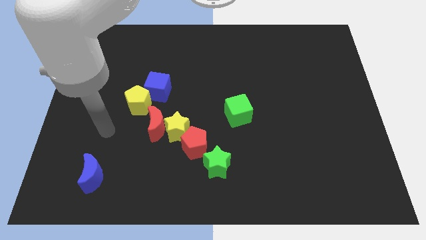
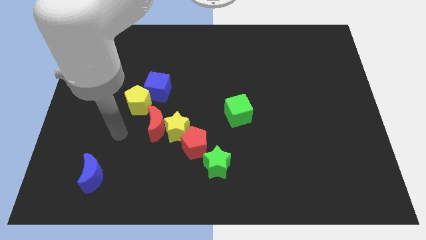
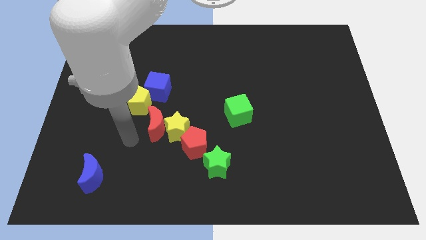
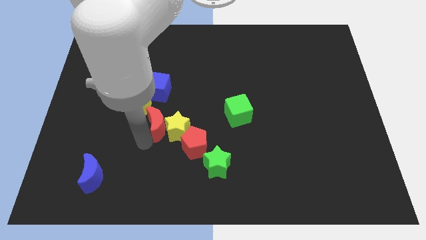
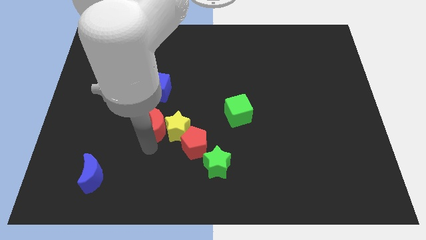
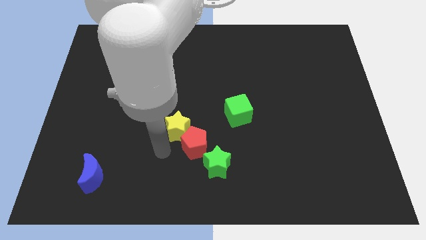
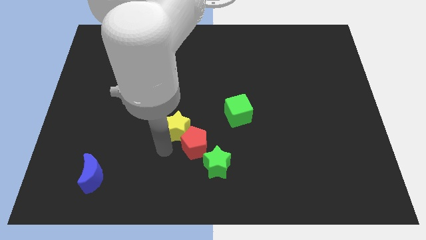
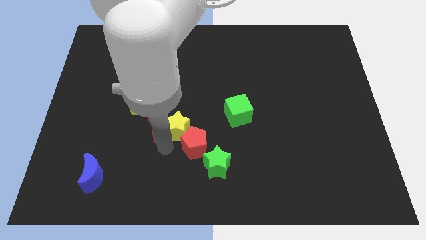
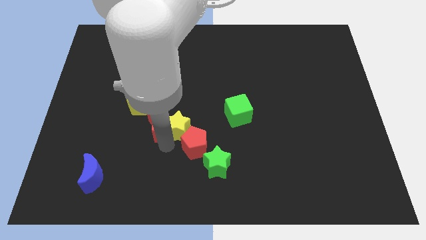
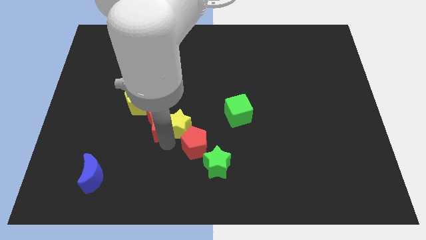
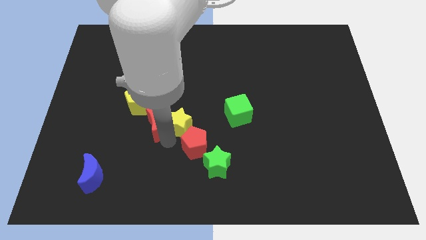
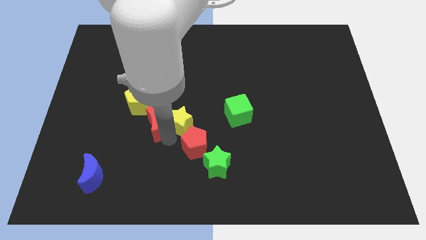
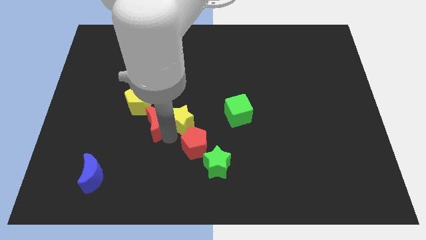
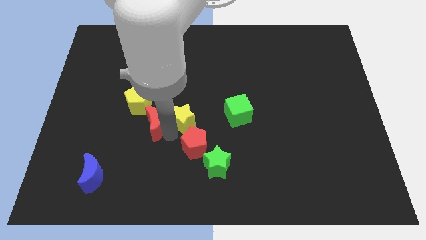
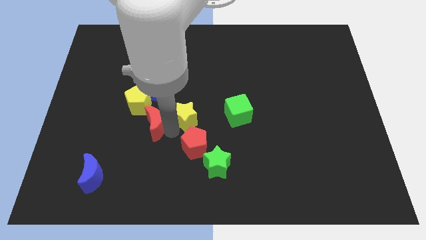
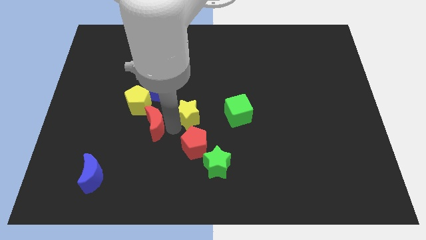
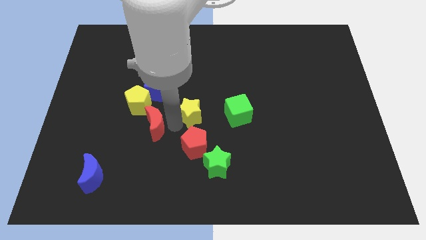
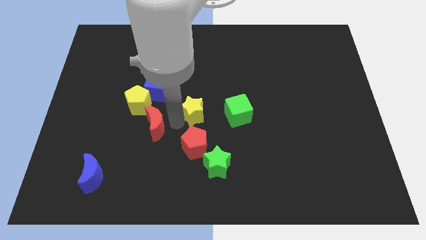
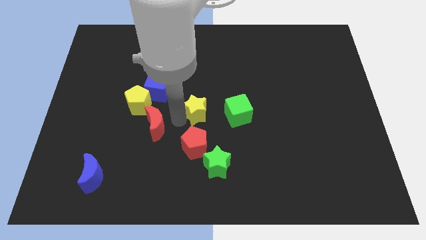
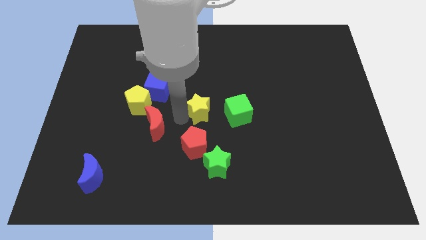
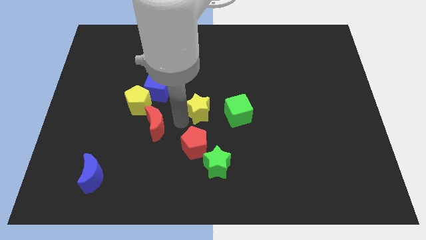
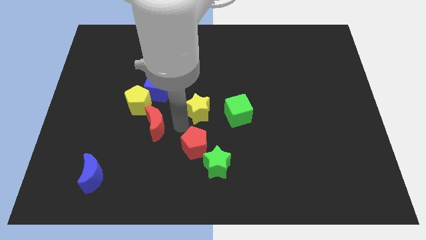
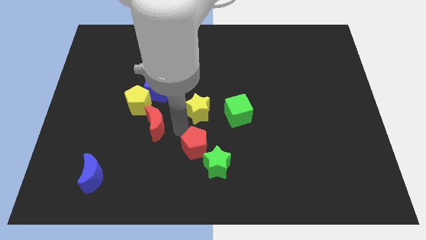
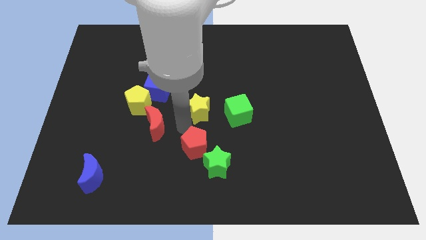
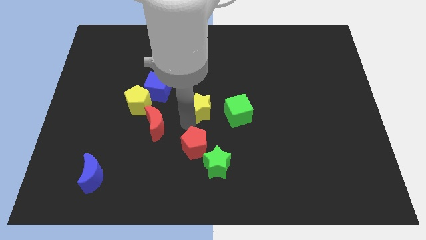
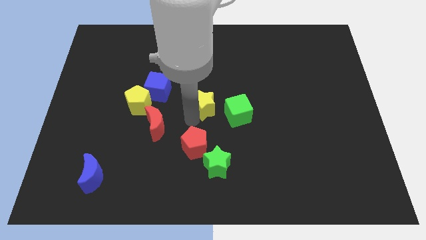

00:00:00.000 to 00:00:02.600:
move the yellow star away from the red moon and red pentagon

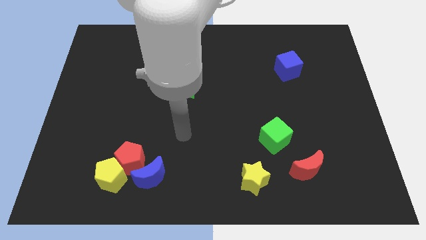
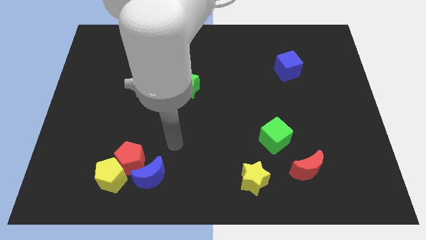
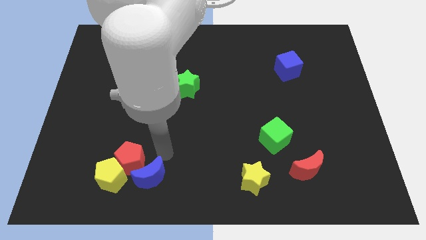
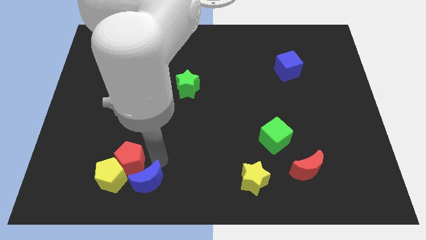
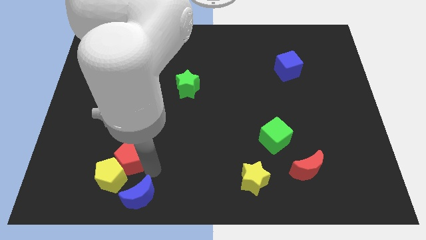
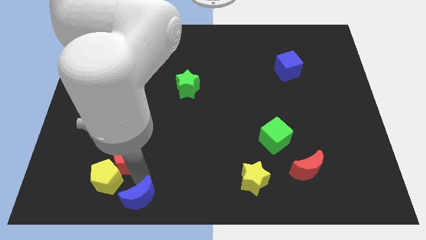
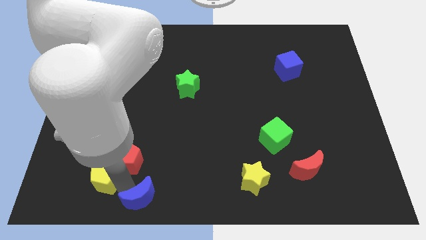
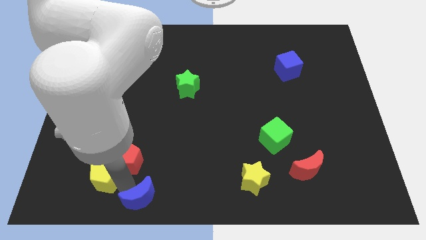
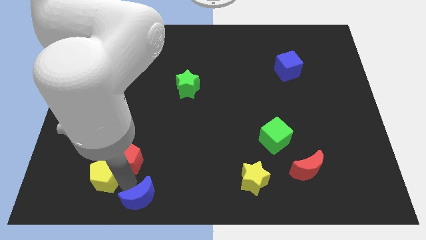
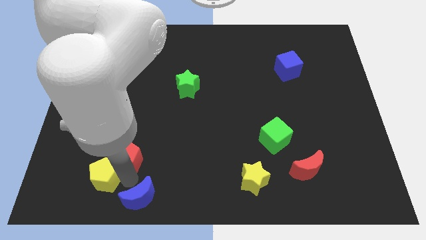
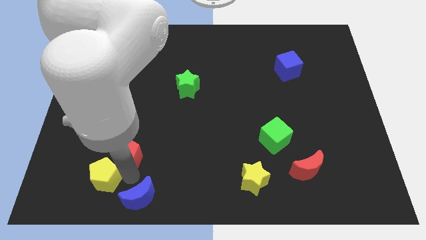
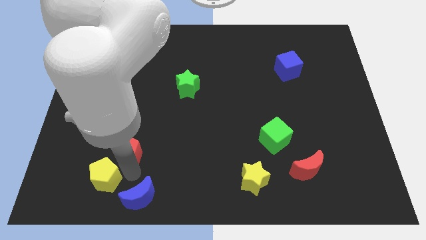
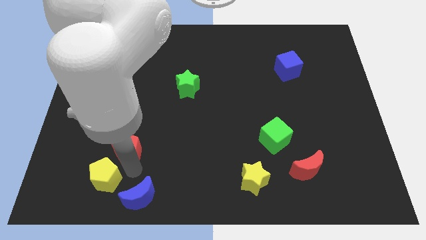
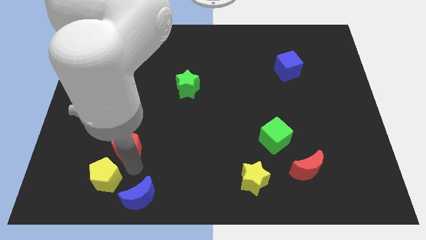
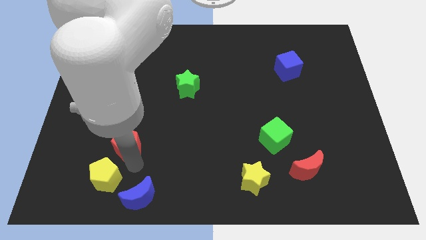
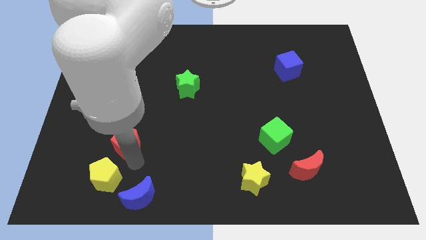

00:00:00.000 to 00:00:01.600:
pull the red pentagon apart from the yellow pentagon and blue moon

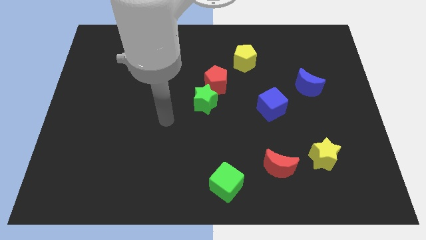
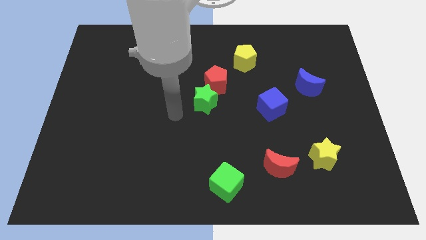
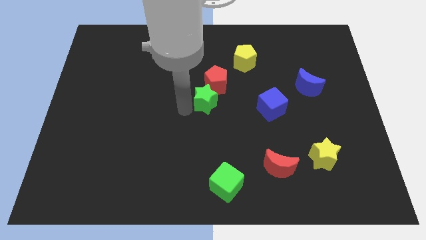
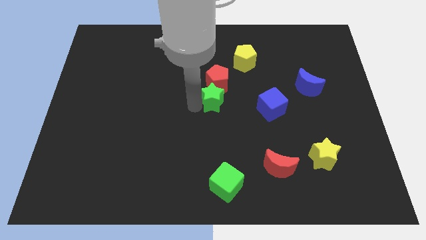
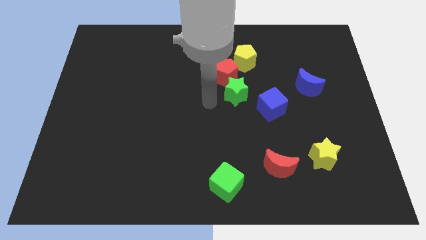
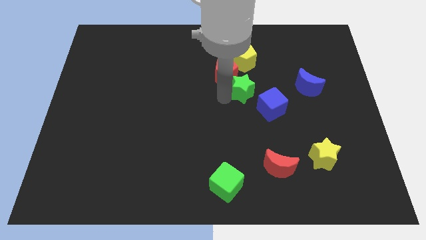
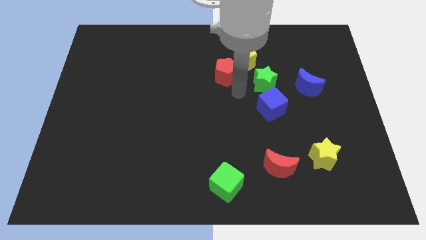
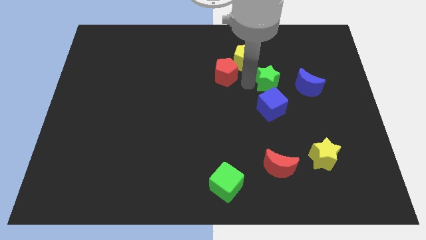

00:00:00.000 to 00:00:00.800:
pull the red pentagon apart from the green star

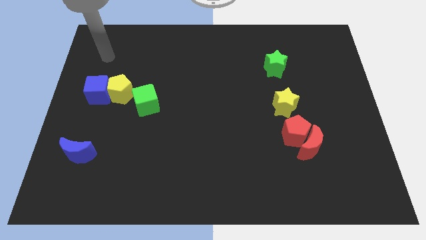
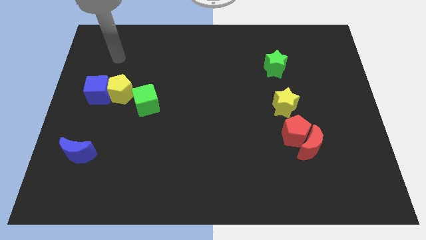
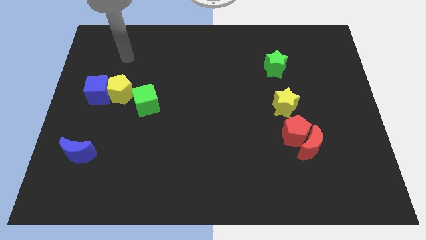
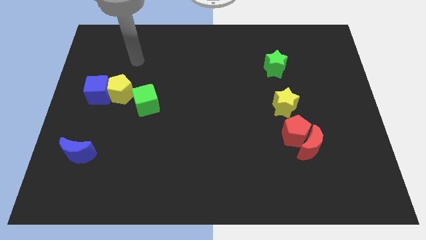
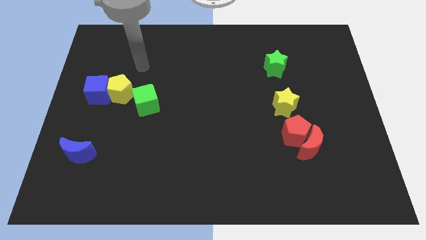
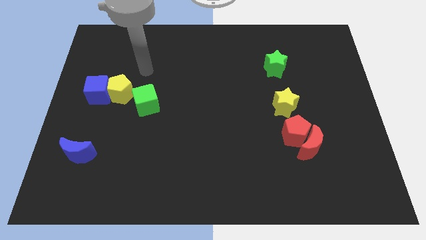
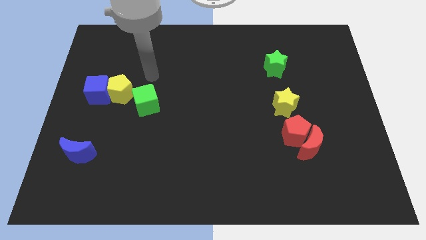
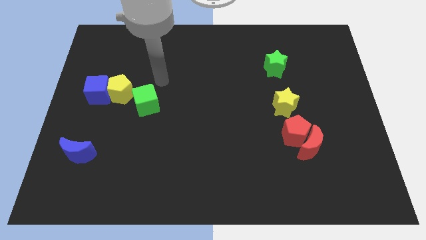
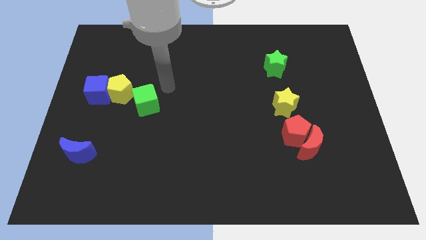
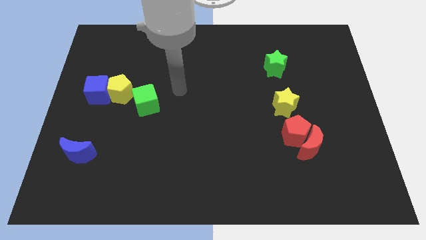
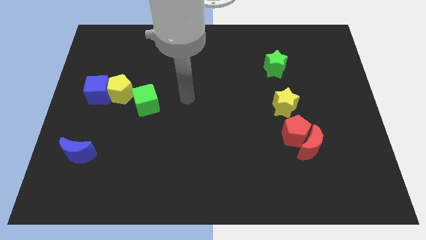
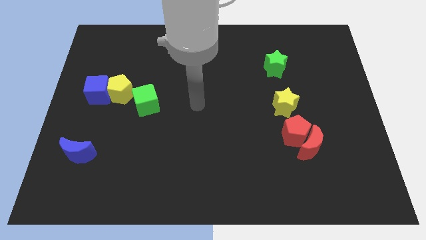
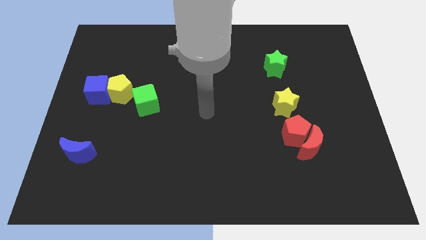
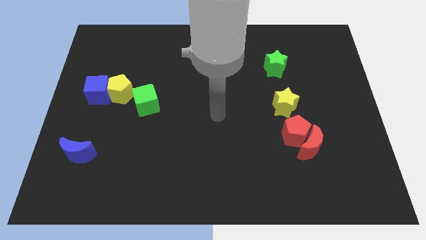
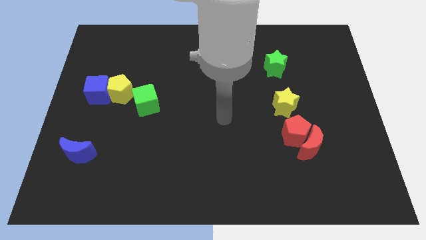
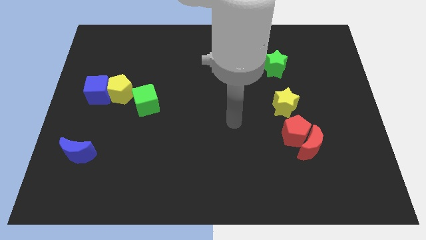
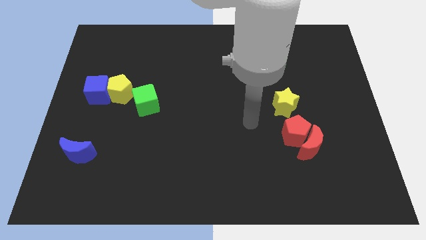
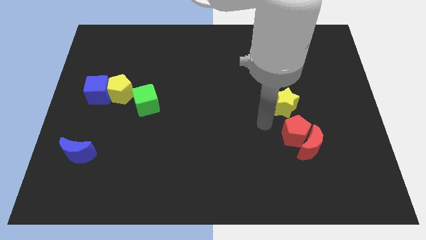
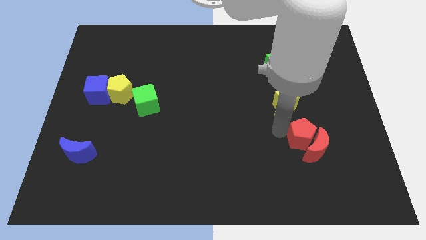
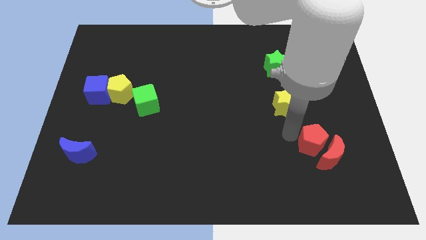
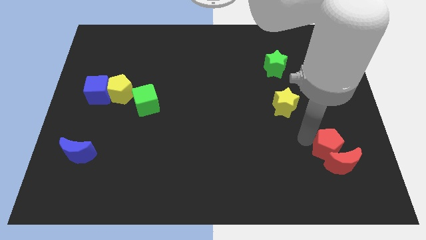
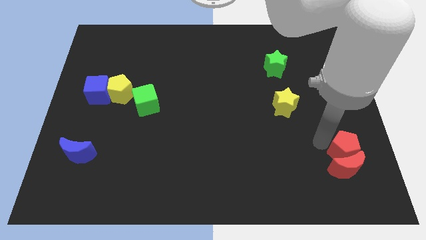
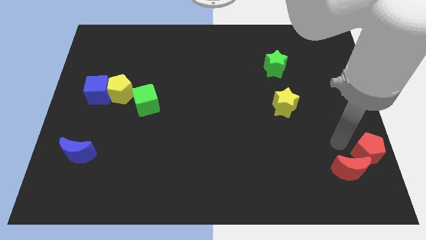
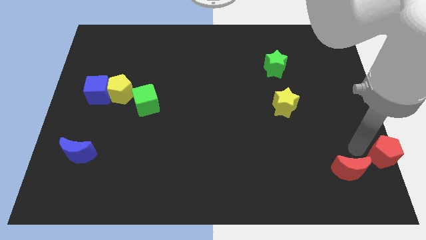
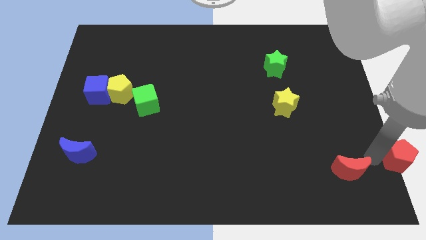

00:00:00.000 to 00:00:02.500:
pull the red moon apart from the red pentagon

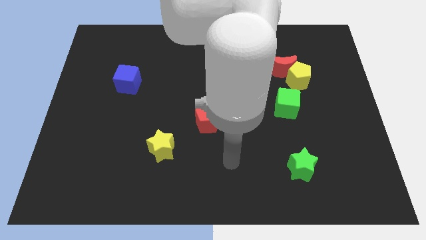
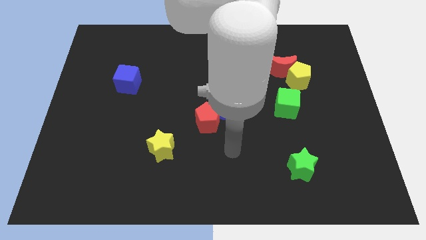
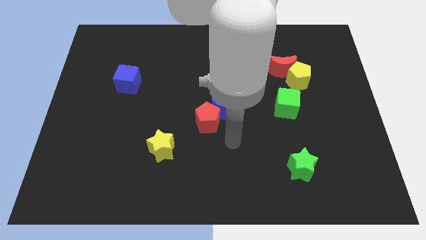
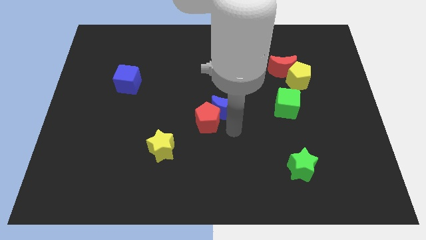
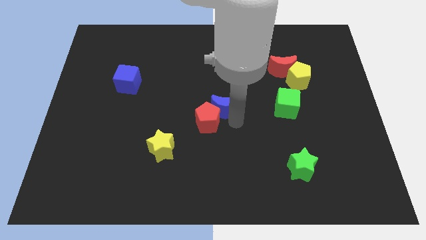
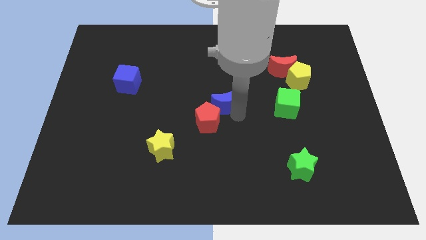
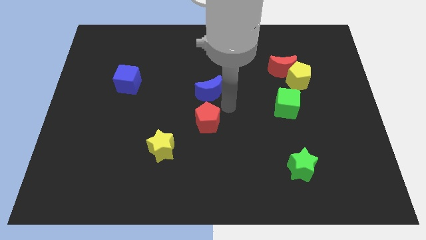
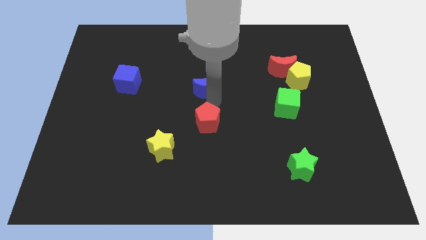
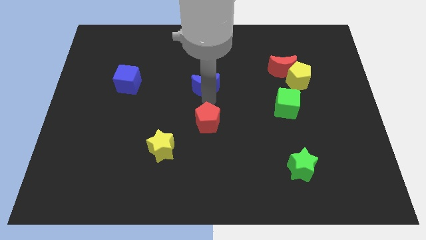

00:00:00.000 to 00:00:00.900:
move the red pentagon away from the blue moon

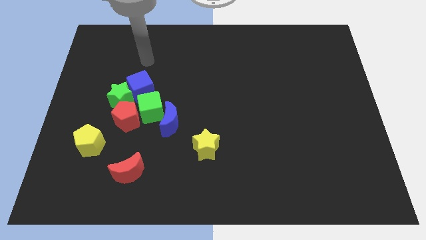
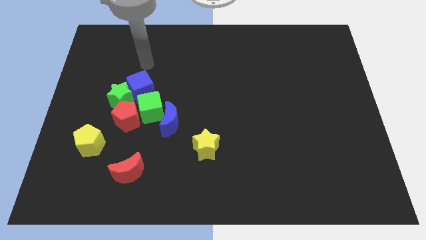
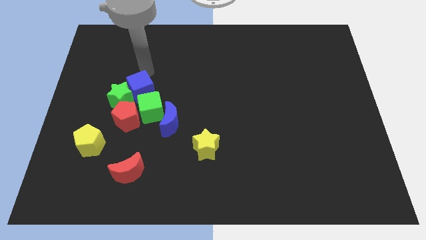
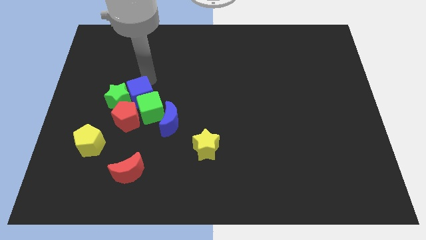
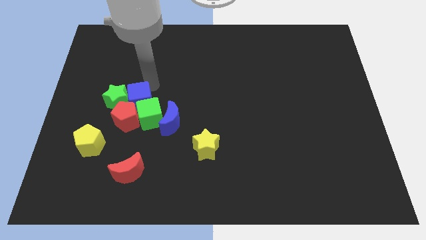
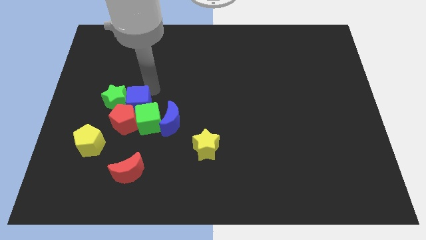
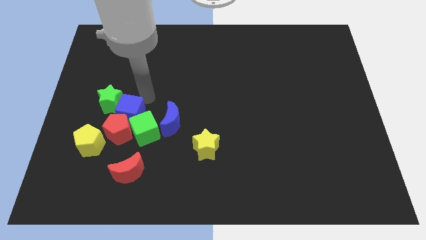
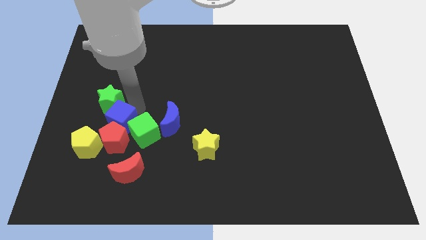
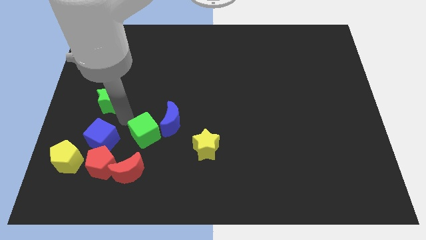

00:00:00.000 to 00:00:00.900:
move the green star away from the blue cube, red pentagon, and green cube
